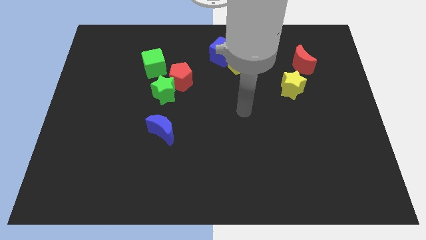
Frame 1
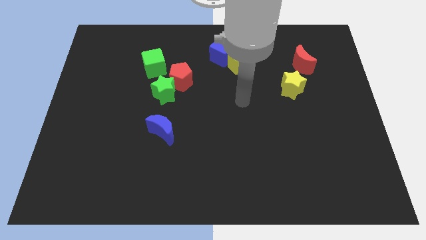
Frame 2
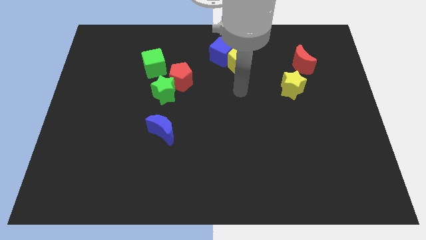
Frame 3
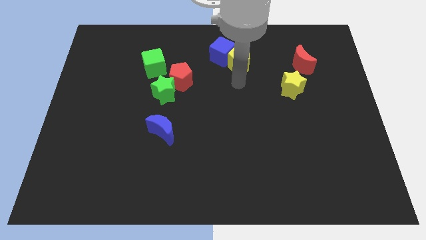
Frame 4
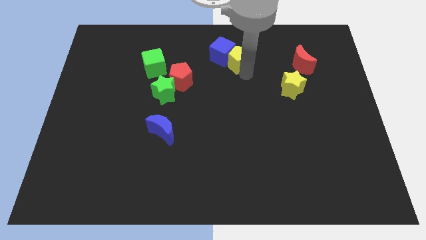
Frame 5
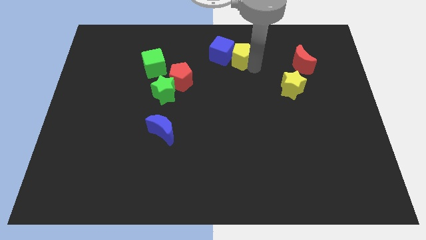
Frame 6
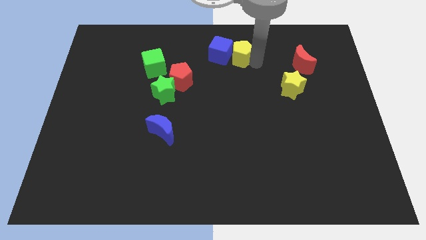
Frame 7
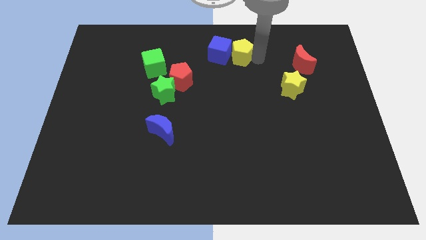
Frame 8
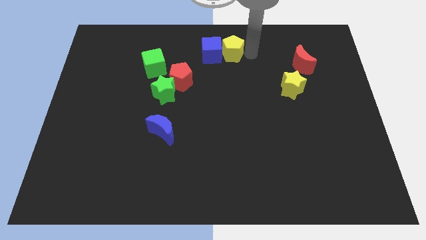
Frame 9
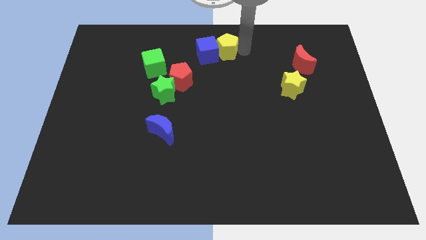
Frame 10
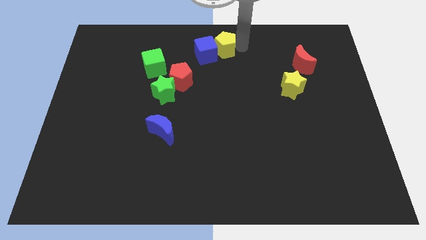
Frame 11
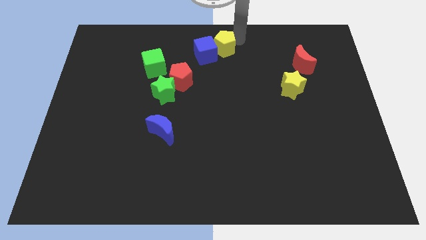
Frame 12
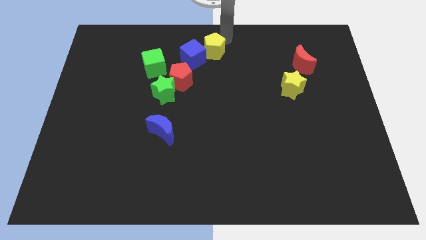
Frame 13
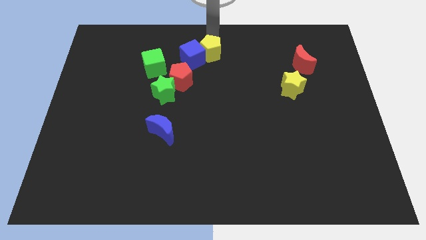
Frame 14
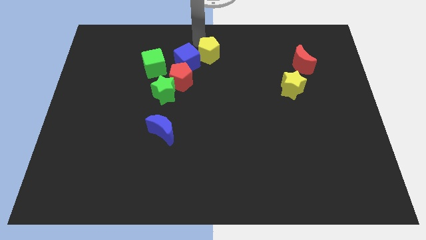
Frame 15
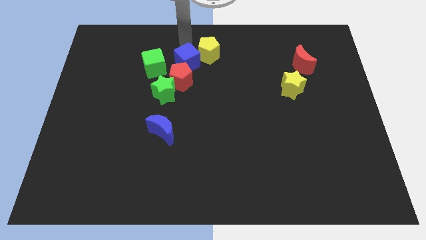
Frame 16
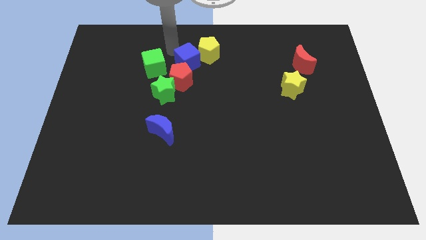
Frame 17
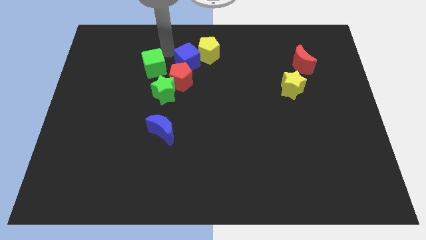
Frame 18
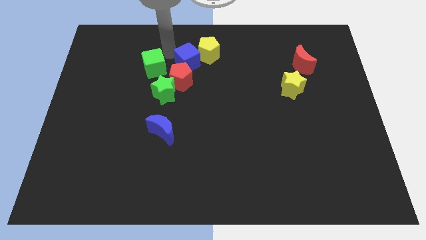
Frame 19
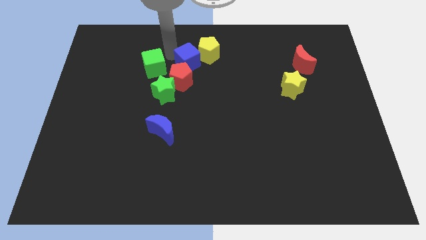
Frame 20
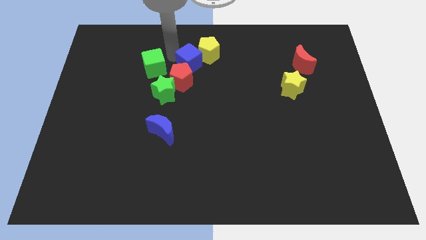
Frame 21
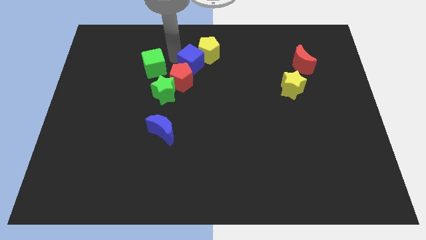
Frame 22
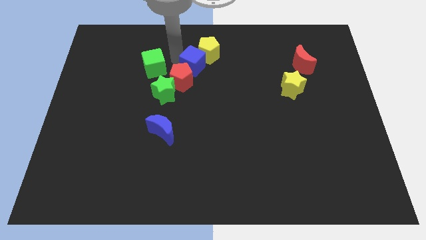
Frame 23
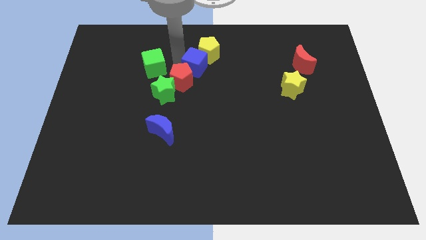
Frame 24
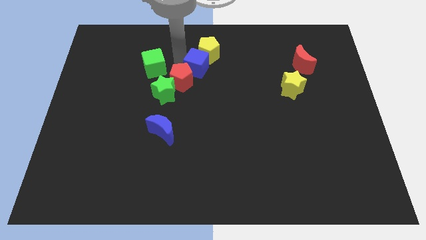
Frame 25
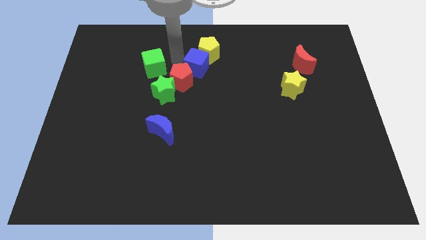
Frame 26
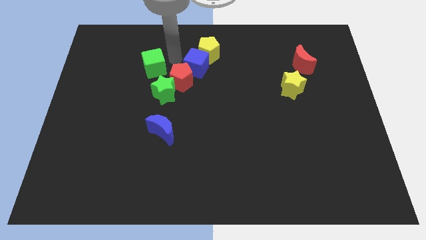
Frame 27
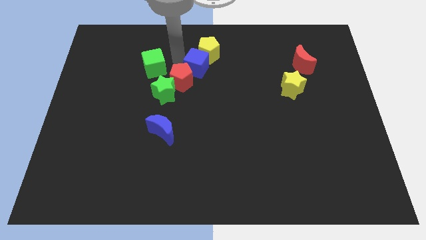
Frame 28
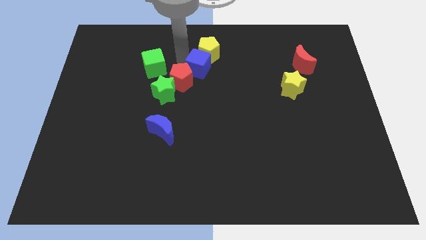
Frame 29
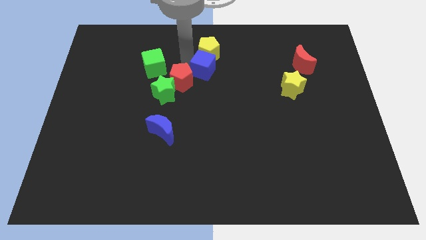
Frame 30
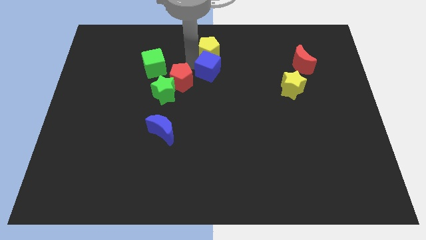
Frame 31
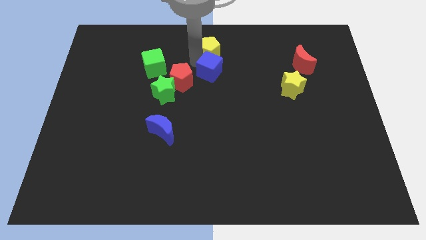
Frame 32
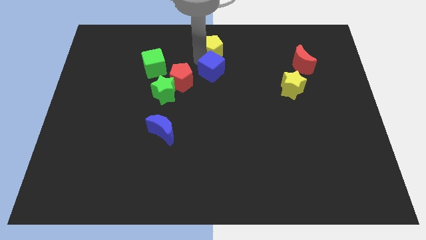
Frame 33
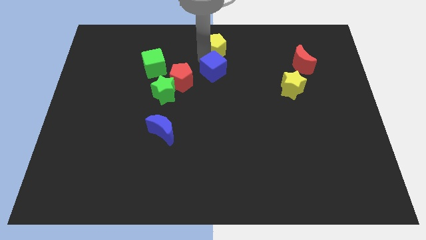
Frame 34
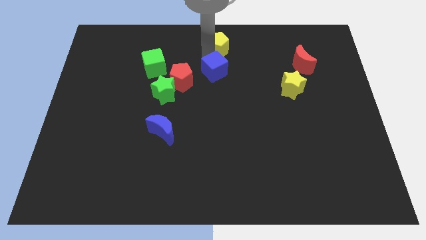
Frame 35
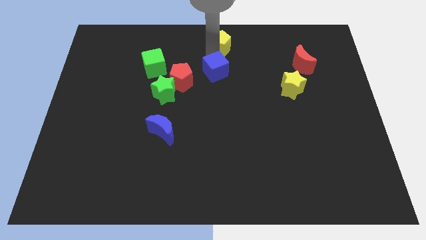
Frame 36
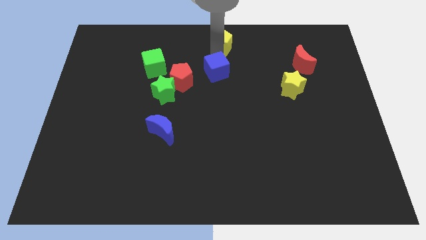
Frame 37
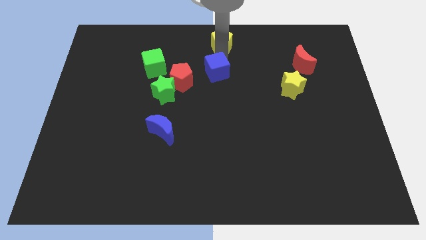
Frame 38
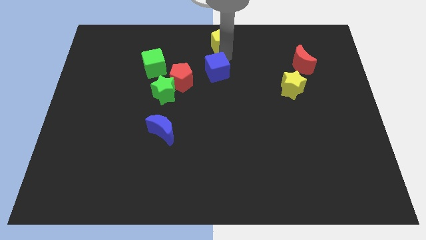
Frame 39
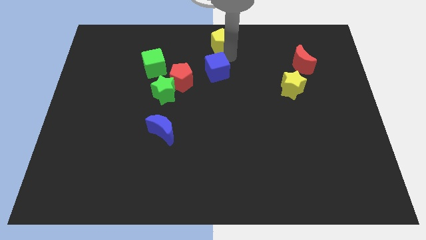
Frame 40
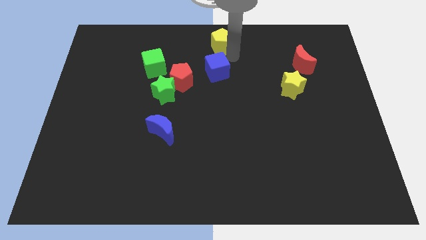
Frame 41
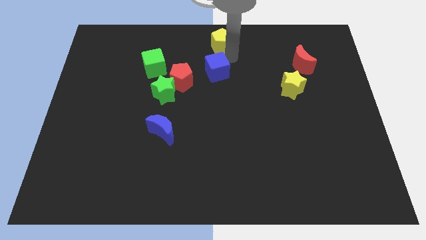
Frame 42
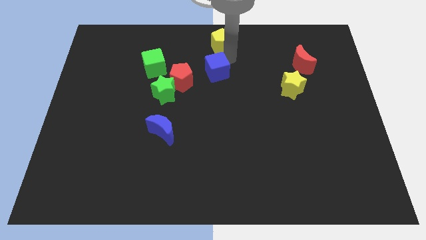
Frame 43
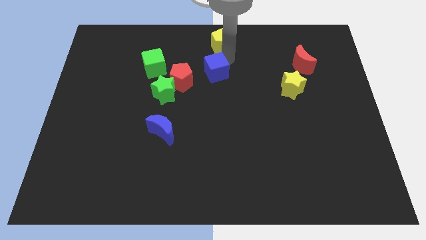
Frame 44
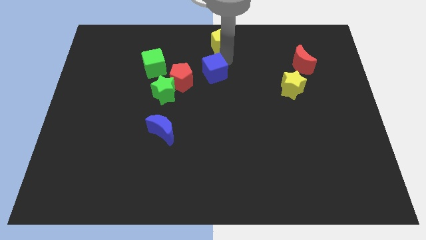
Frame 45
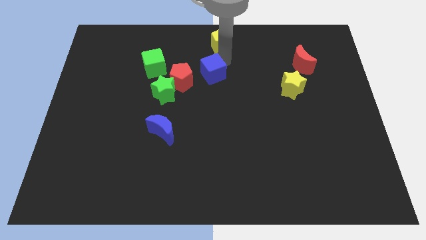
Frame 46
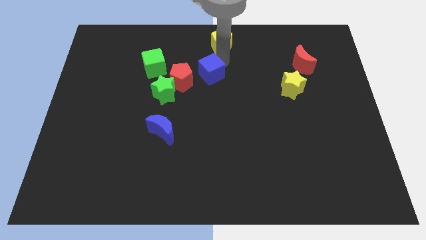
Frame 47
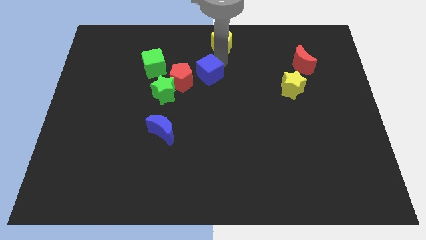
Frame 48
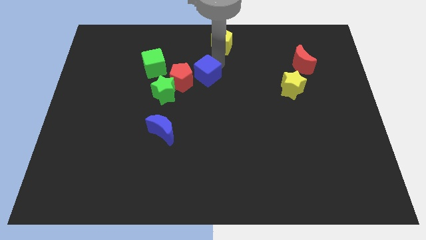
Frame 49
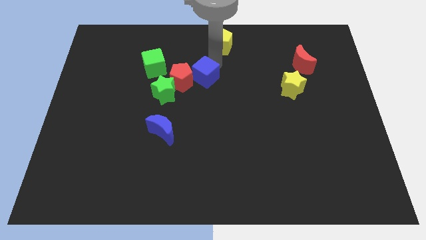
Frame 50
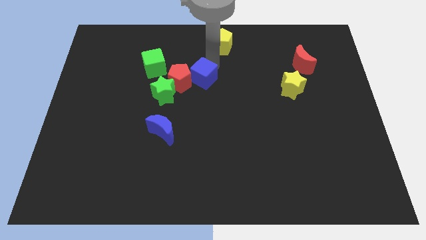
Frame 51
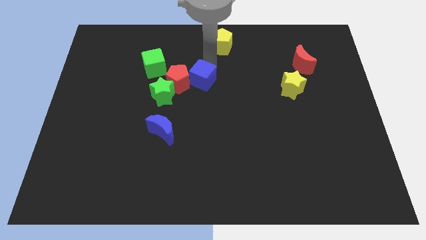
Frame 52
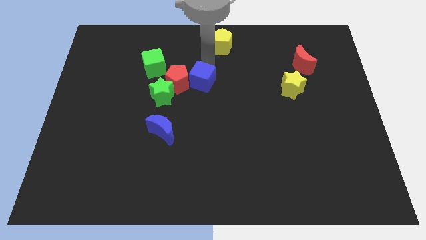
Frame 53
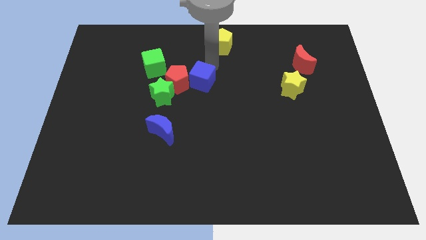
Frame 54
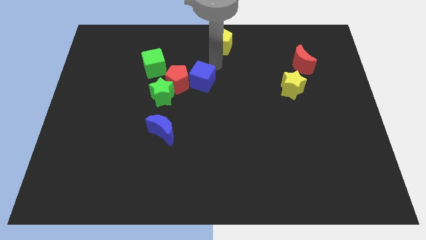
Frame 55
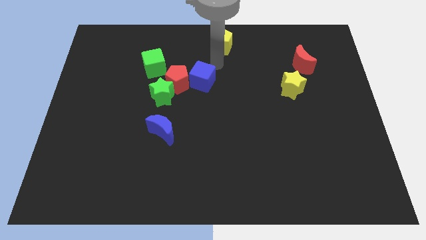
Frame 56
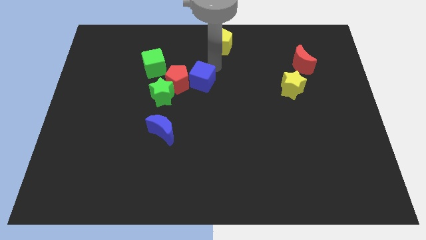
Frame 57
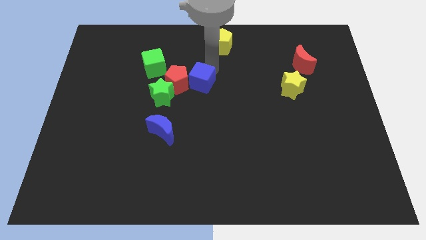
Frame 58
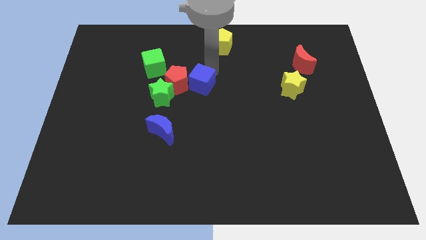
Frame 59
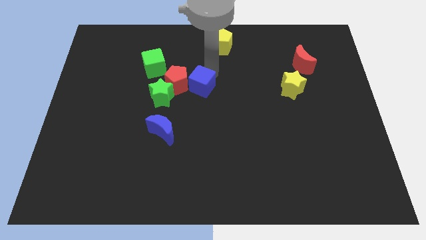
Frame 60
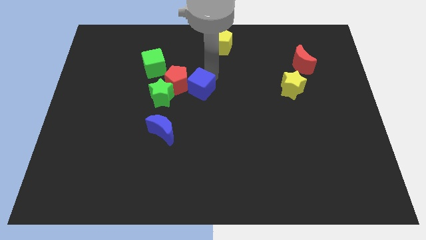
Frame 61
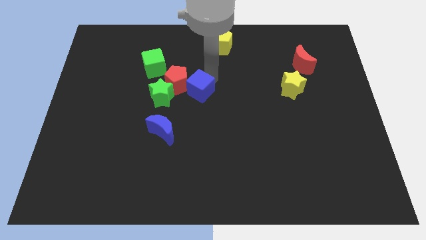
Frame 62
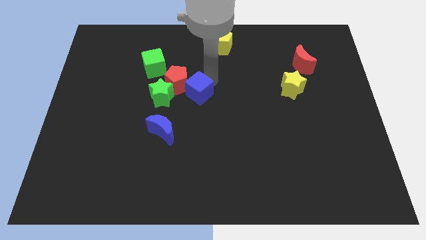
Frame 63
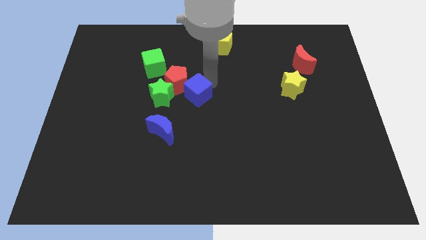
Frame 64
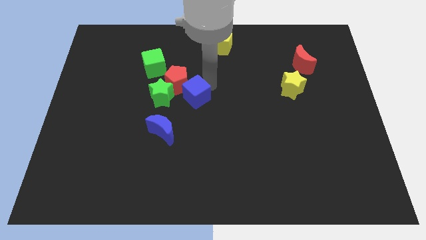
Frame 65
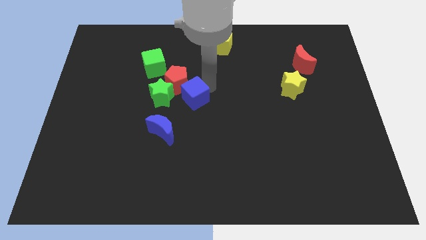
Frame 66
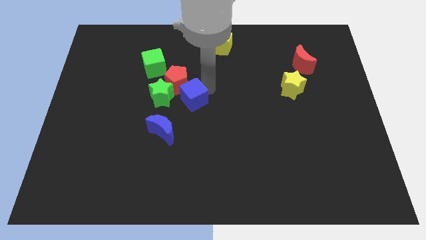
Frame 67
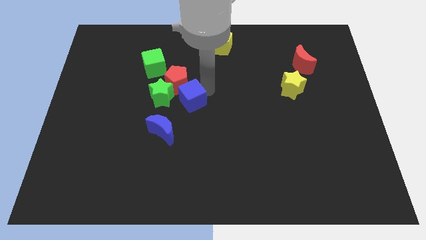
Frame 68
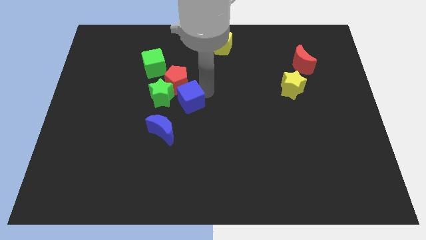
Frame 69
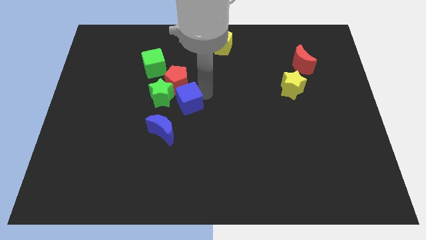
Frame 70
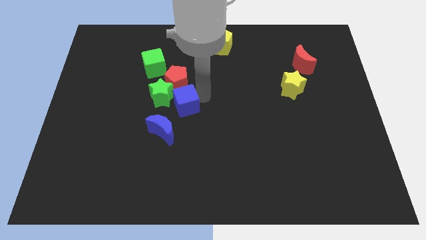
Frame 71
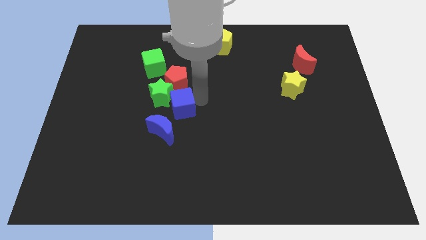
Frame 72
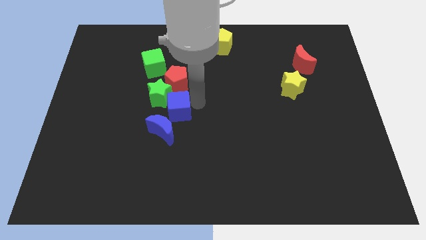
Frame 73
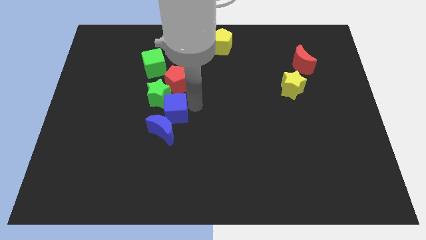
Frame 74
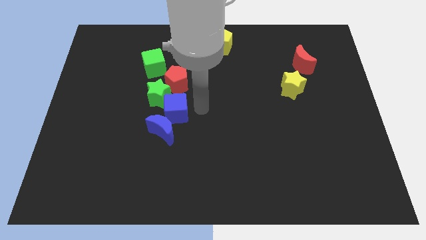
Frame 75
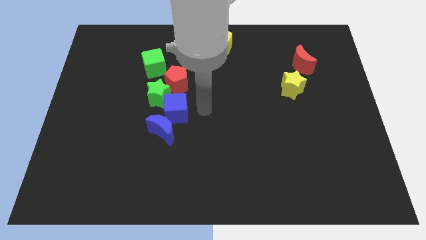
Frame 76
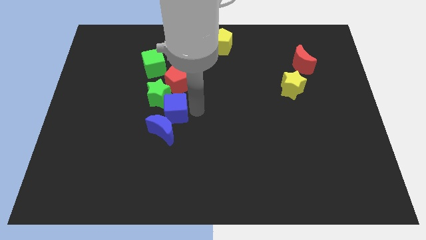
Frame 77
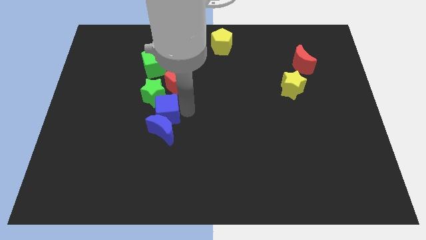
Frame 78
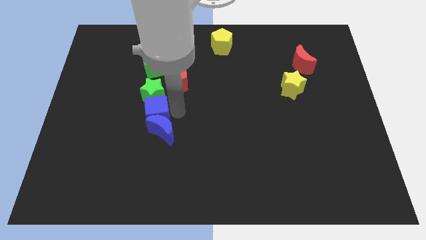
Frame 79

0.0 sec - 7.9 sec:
put the blue cube diagonally down and to the left of the green star
